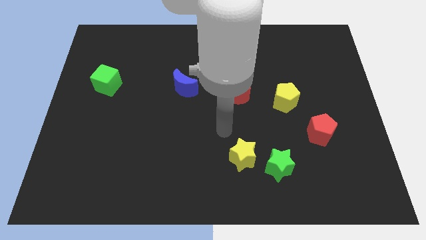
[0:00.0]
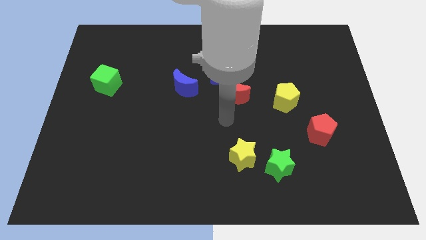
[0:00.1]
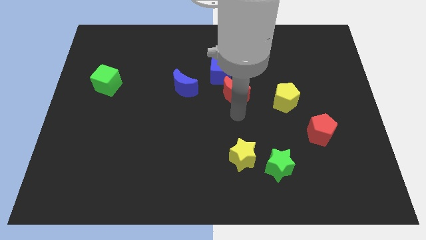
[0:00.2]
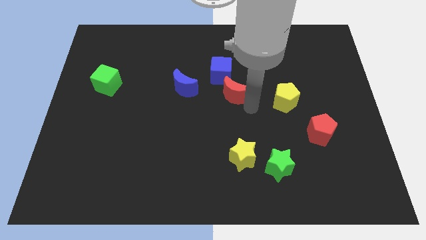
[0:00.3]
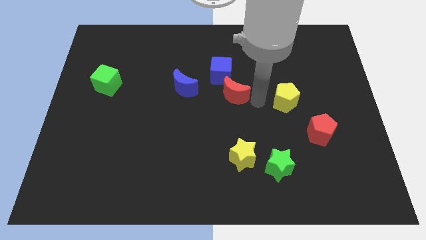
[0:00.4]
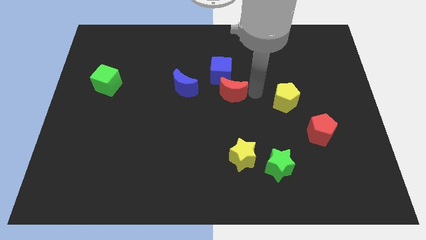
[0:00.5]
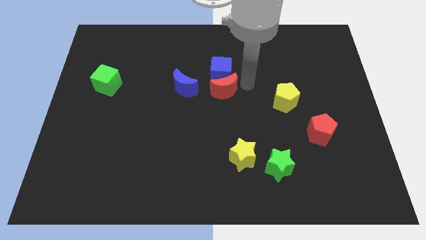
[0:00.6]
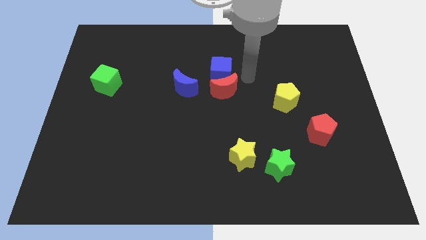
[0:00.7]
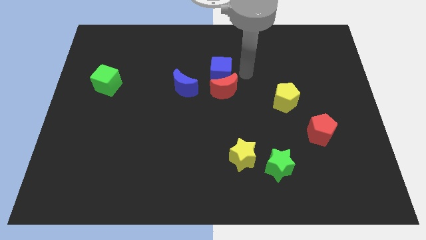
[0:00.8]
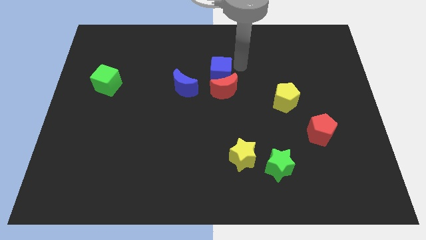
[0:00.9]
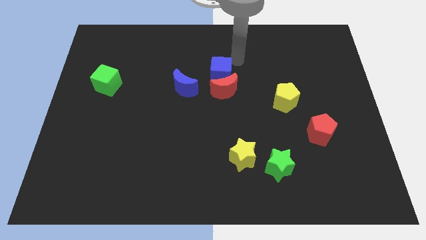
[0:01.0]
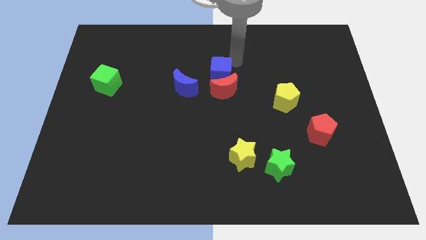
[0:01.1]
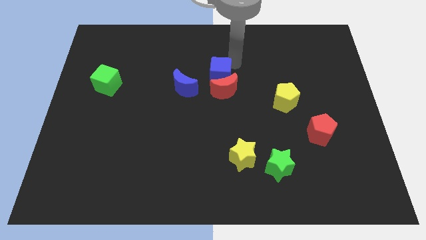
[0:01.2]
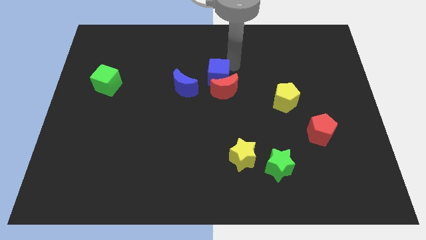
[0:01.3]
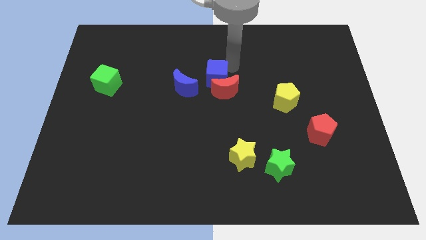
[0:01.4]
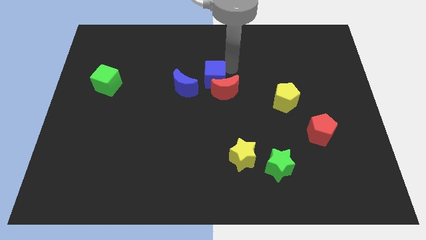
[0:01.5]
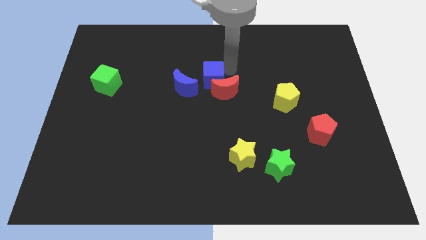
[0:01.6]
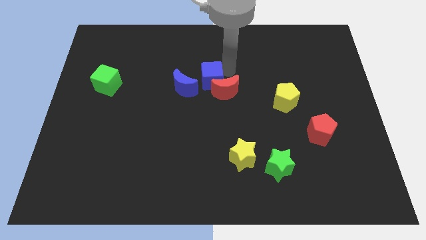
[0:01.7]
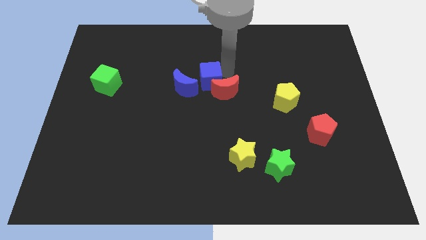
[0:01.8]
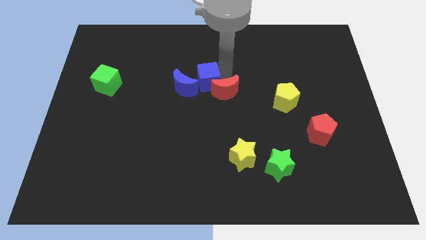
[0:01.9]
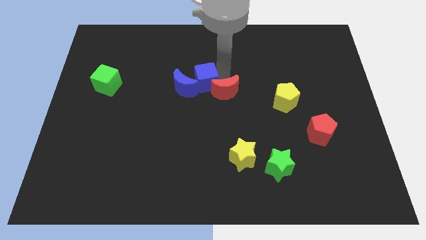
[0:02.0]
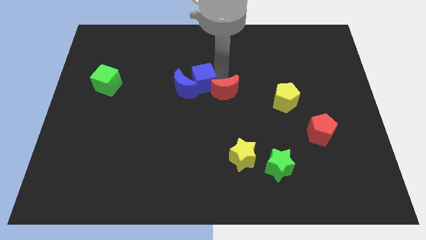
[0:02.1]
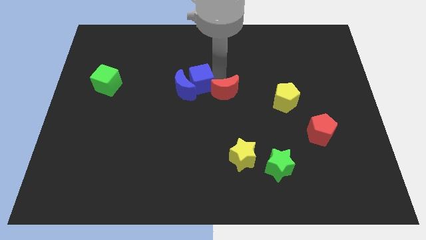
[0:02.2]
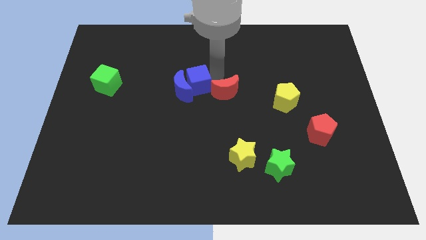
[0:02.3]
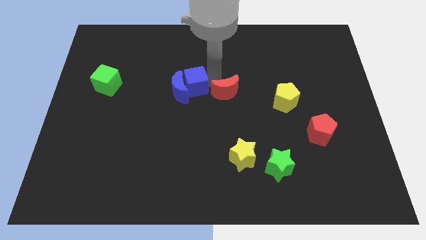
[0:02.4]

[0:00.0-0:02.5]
push the blue cube diagonally down and to the left a bit

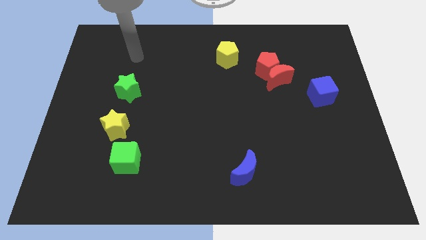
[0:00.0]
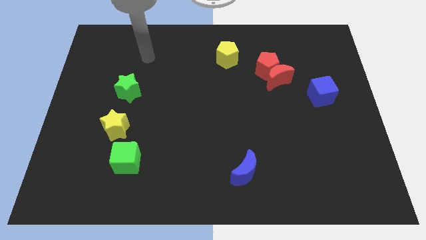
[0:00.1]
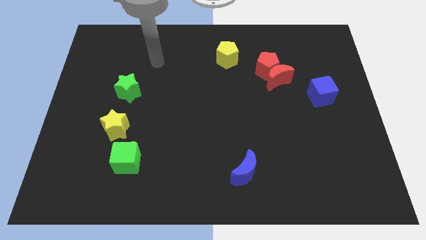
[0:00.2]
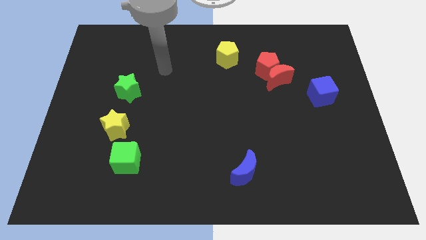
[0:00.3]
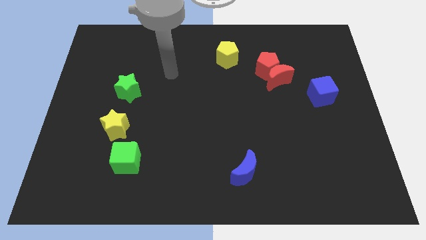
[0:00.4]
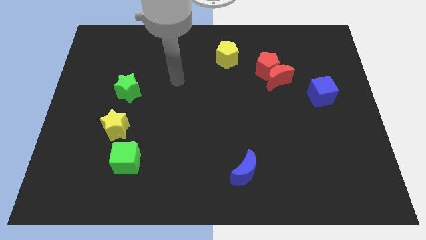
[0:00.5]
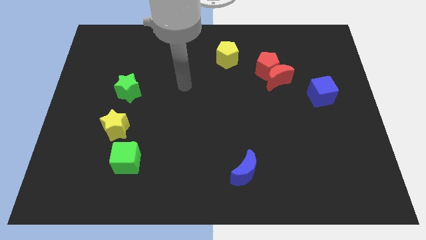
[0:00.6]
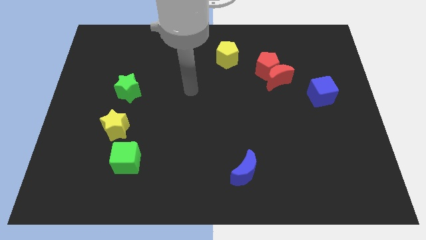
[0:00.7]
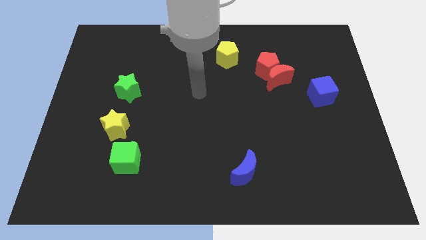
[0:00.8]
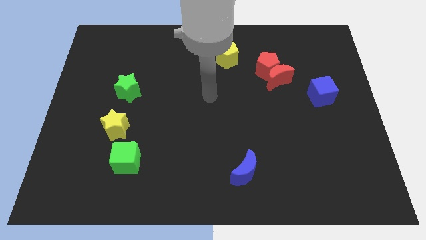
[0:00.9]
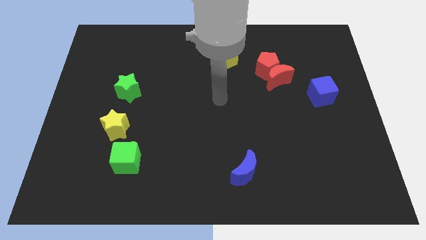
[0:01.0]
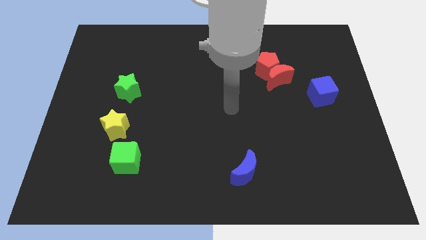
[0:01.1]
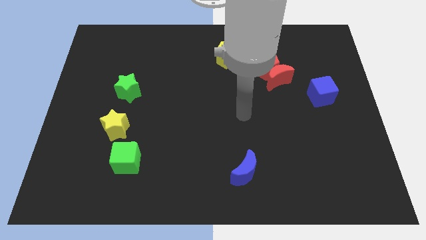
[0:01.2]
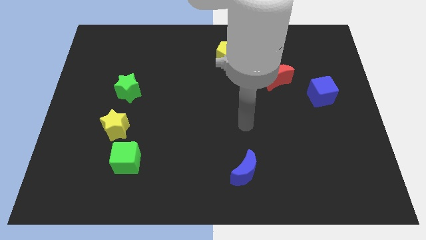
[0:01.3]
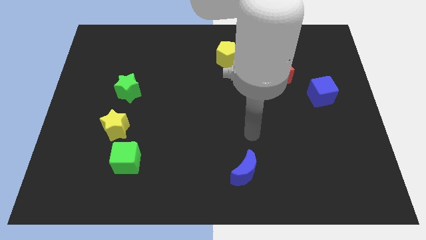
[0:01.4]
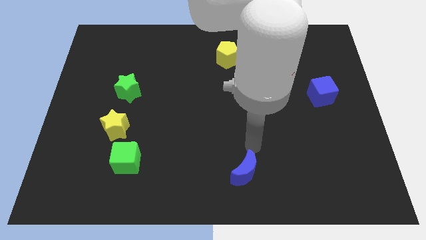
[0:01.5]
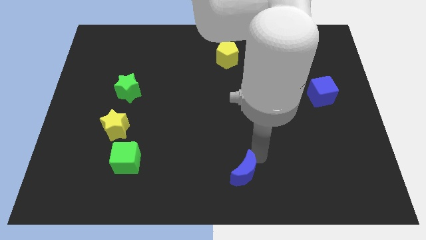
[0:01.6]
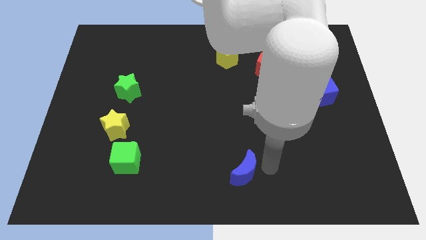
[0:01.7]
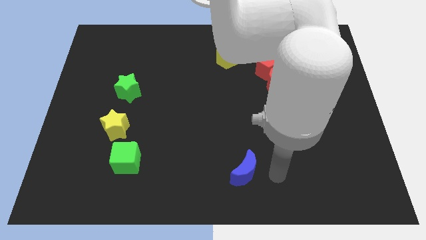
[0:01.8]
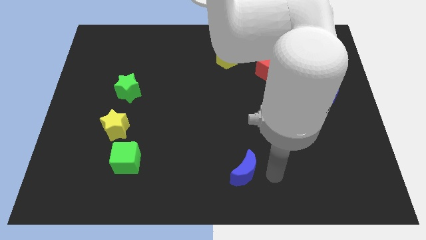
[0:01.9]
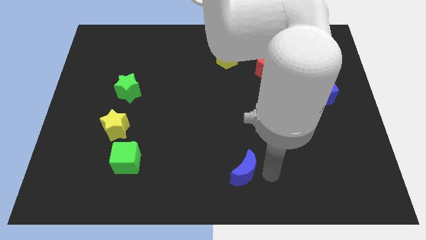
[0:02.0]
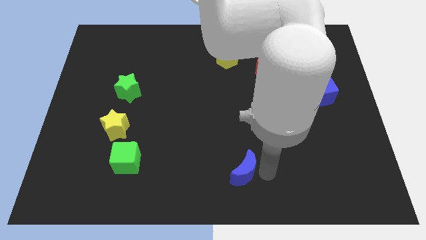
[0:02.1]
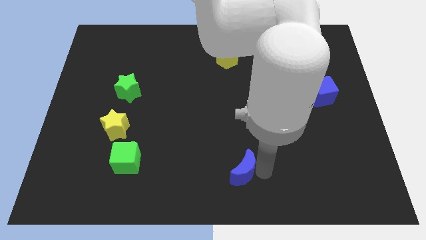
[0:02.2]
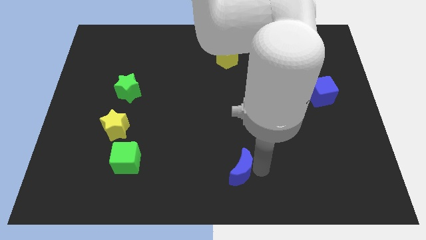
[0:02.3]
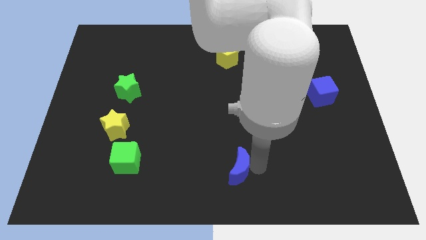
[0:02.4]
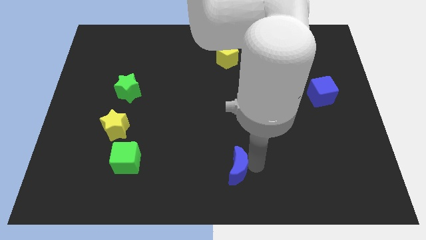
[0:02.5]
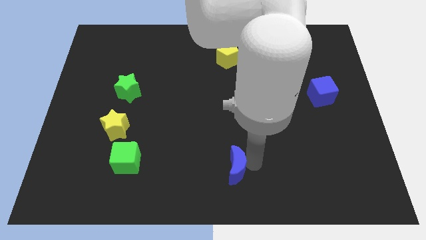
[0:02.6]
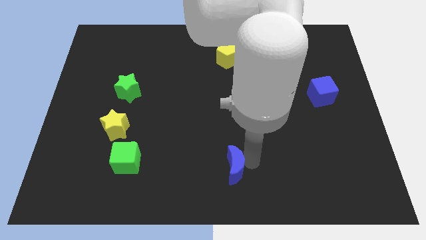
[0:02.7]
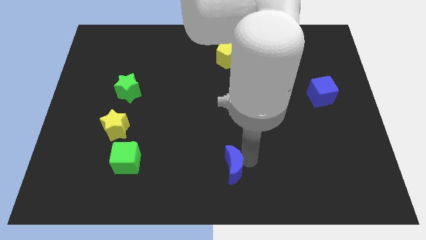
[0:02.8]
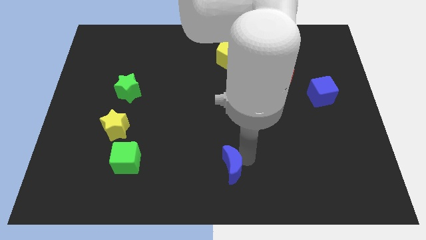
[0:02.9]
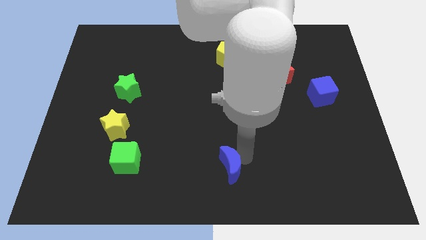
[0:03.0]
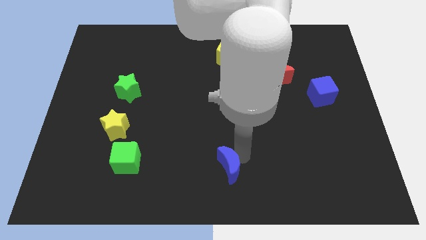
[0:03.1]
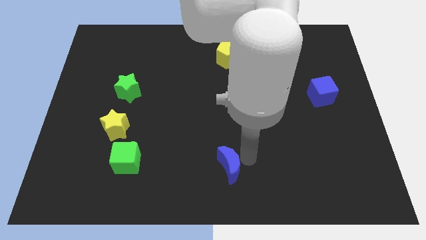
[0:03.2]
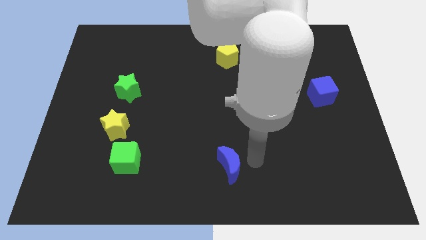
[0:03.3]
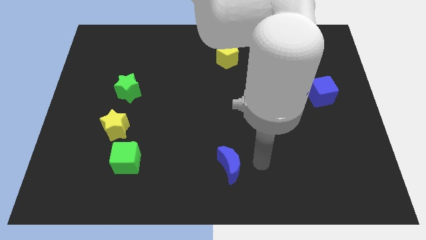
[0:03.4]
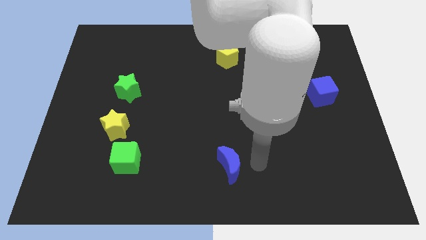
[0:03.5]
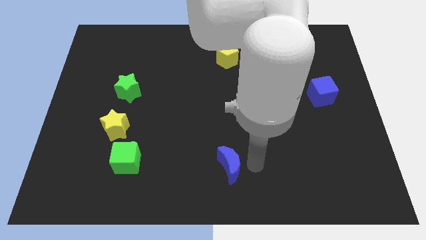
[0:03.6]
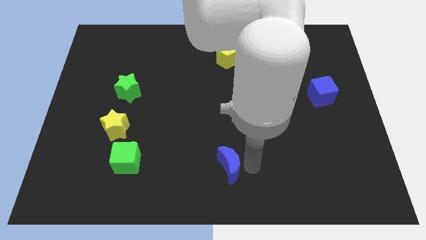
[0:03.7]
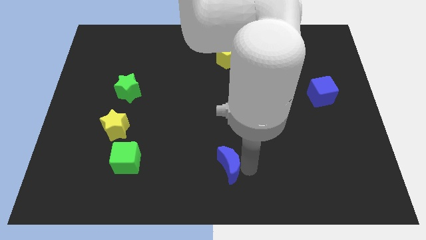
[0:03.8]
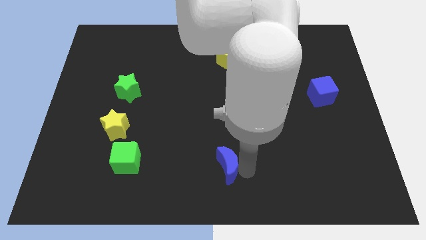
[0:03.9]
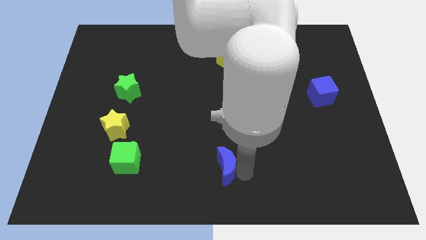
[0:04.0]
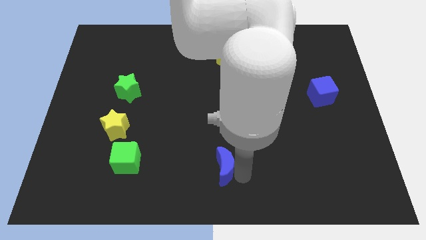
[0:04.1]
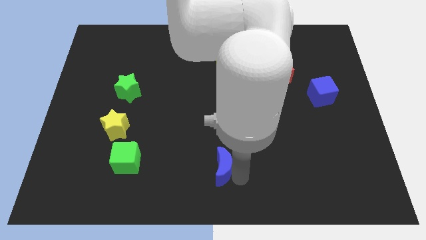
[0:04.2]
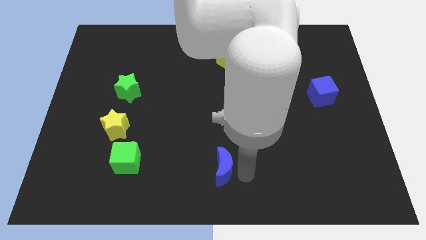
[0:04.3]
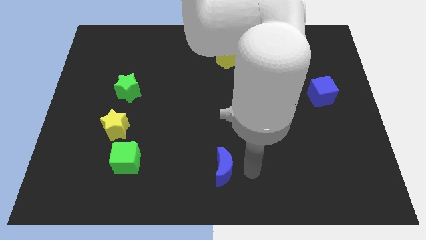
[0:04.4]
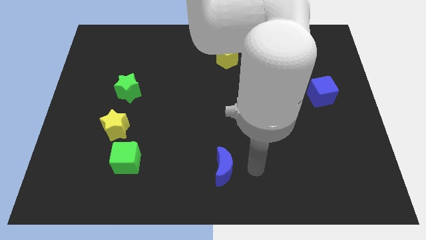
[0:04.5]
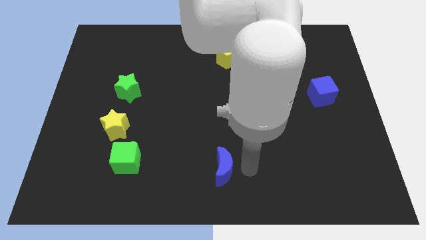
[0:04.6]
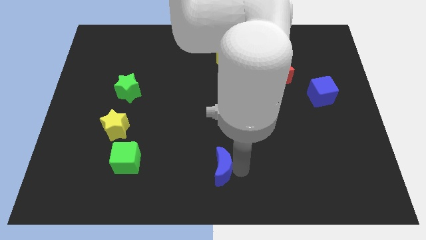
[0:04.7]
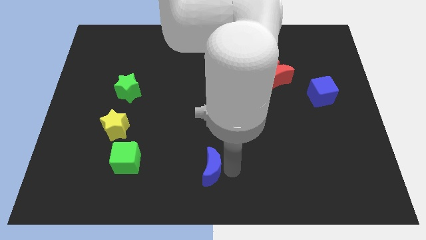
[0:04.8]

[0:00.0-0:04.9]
slightly move the blue moon left

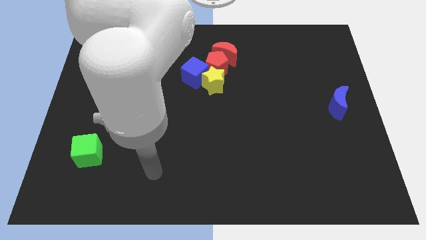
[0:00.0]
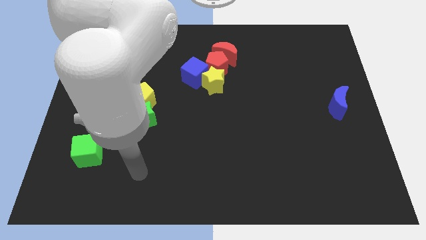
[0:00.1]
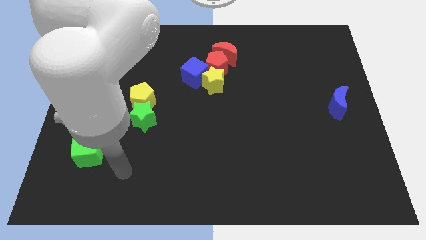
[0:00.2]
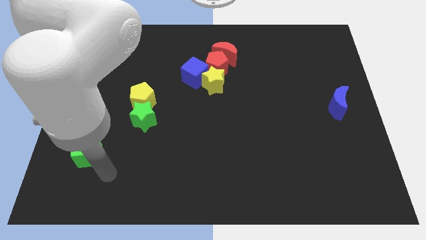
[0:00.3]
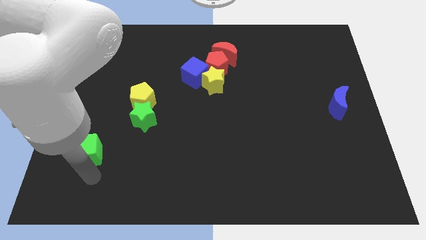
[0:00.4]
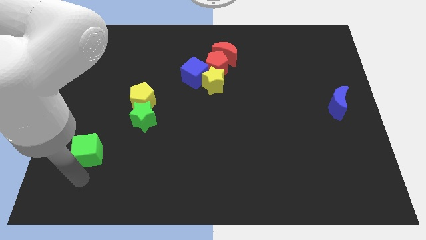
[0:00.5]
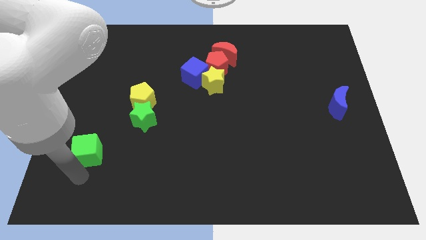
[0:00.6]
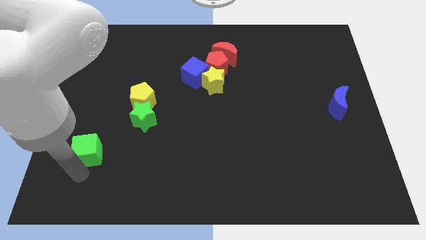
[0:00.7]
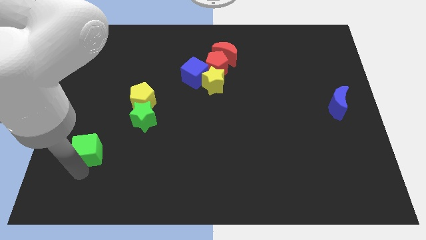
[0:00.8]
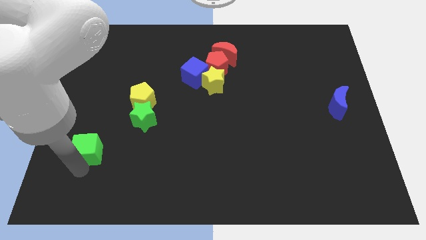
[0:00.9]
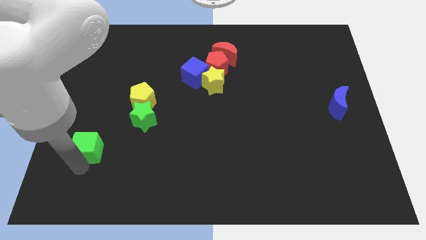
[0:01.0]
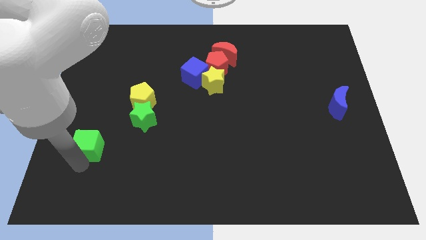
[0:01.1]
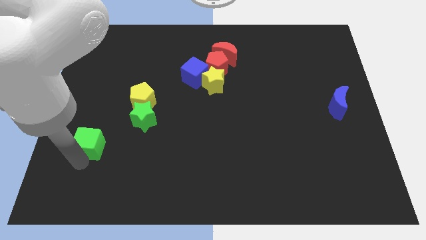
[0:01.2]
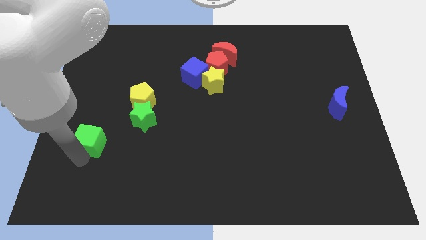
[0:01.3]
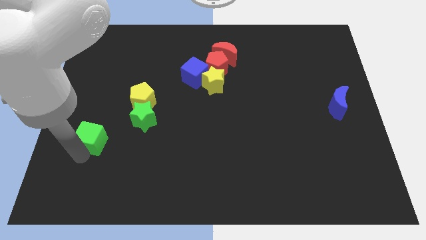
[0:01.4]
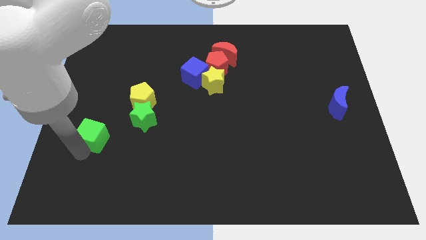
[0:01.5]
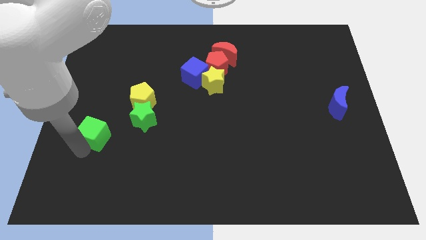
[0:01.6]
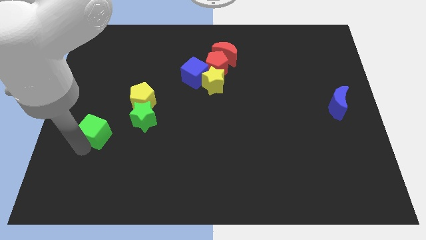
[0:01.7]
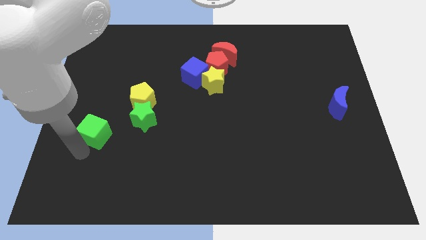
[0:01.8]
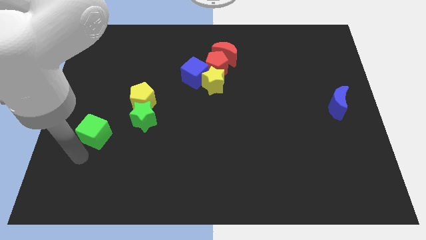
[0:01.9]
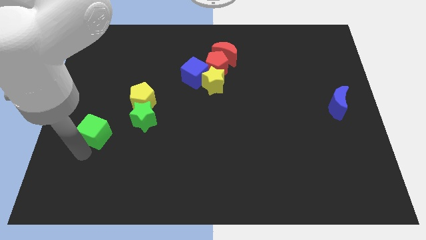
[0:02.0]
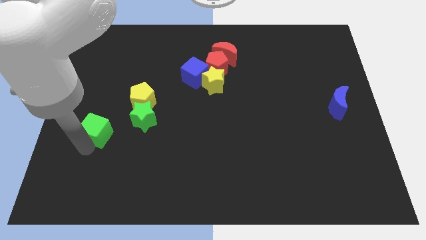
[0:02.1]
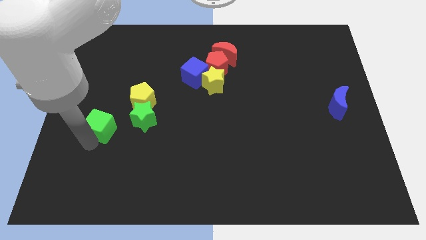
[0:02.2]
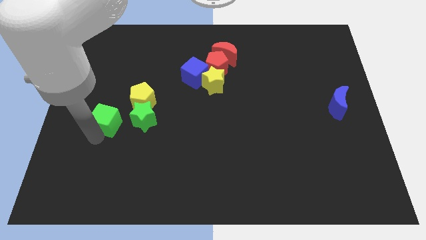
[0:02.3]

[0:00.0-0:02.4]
move the green cube a little bit upwards
